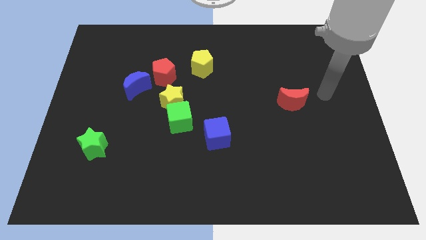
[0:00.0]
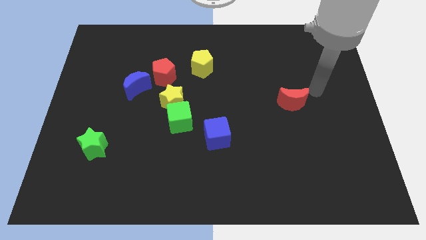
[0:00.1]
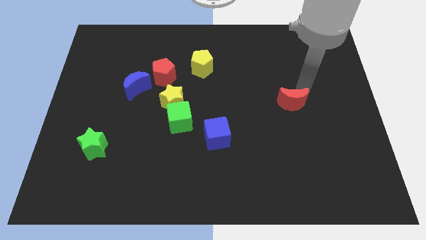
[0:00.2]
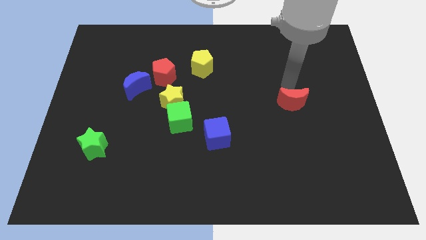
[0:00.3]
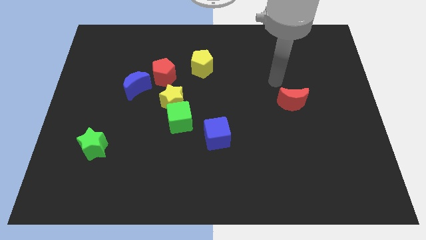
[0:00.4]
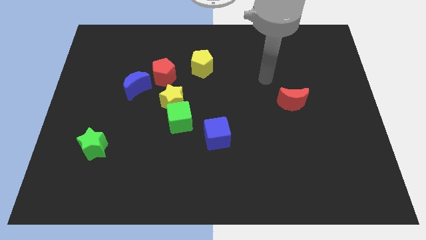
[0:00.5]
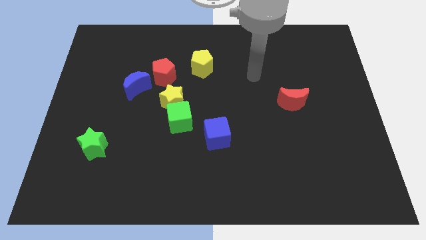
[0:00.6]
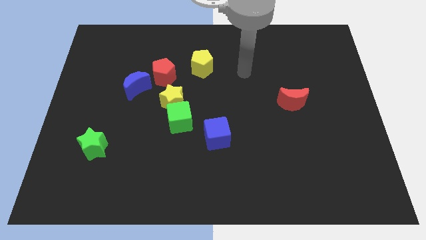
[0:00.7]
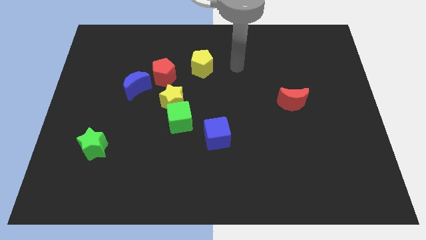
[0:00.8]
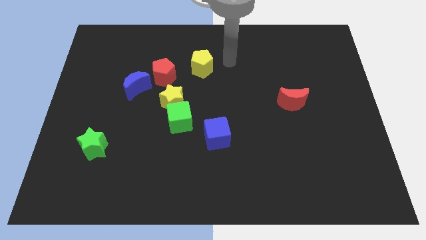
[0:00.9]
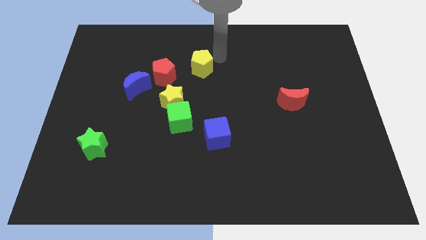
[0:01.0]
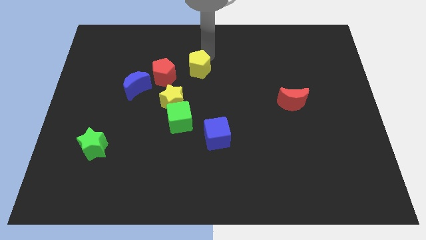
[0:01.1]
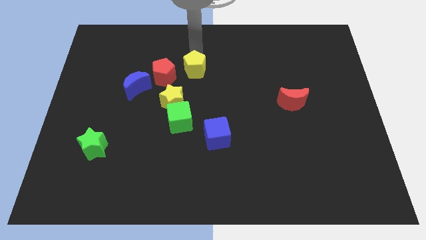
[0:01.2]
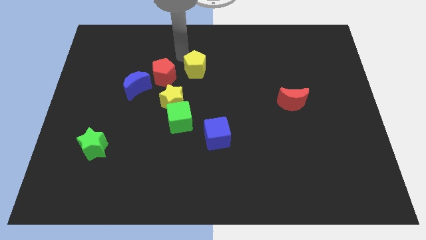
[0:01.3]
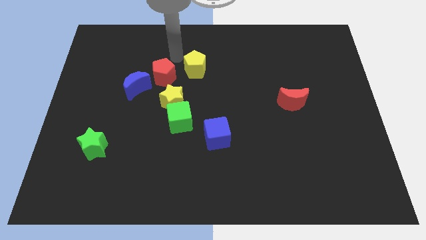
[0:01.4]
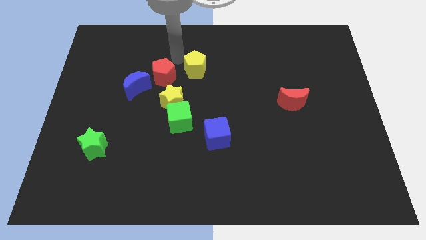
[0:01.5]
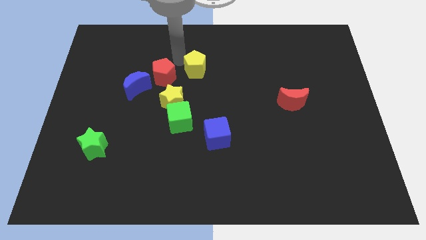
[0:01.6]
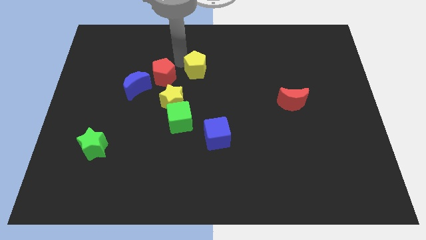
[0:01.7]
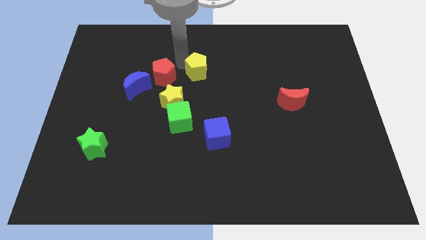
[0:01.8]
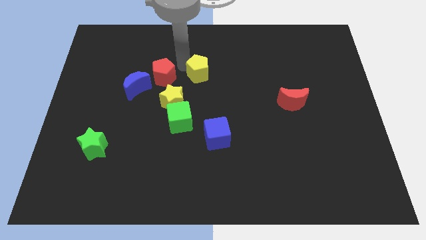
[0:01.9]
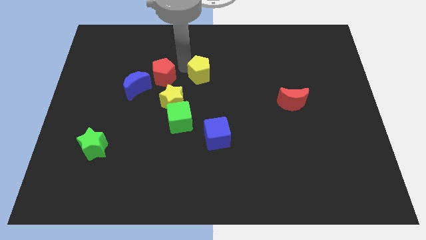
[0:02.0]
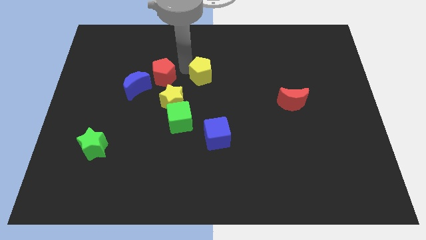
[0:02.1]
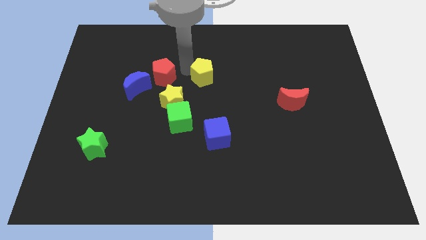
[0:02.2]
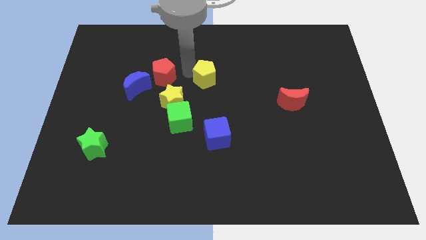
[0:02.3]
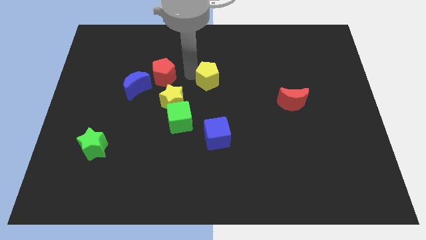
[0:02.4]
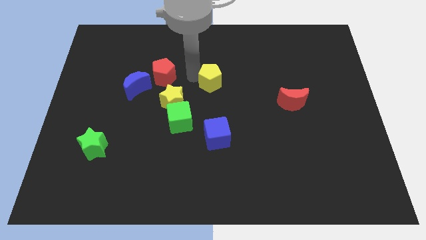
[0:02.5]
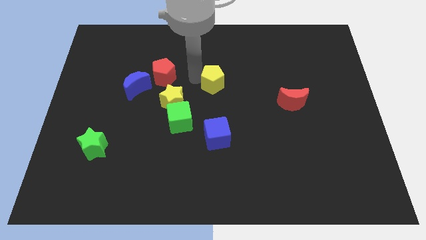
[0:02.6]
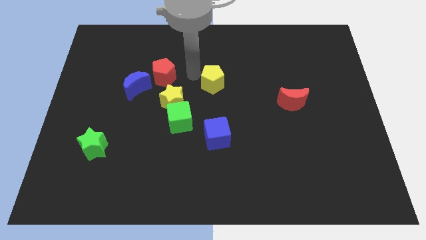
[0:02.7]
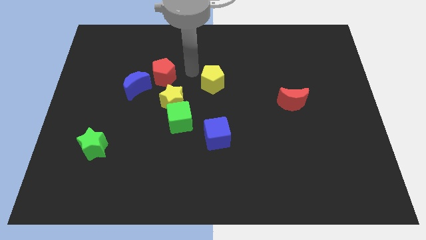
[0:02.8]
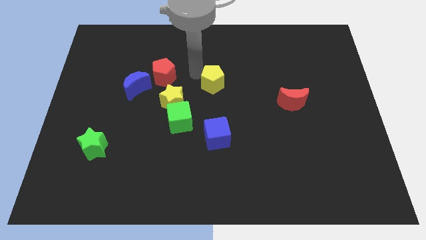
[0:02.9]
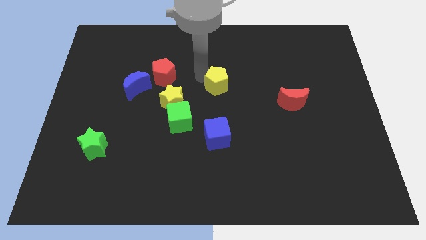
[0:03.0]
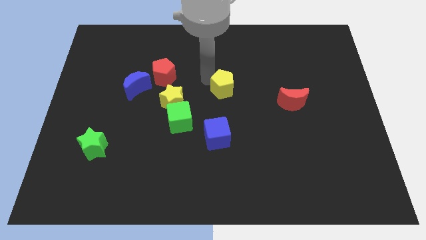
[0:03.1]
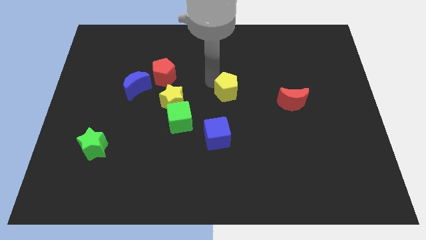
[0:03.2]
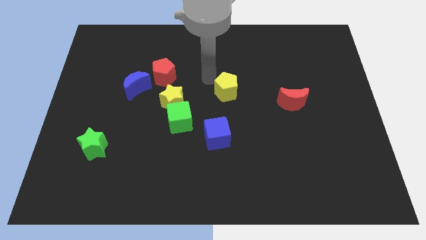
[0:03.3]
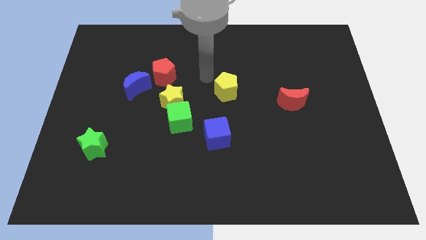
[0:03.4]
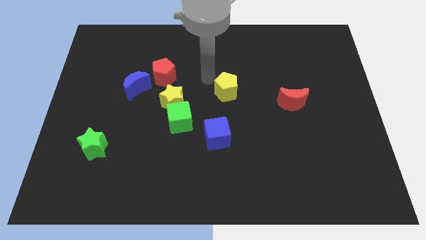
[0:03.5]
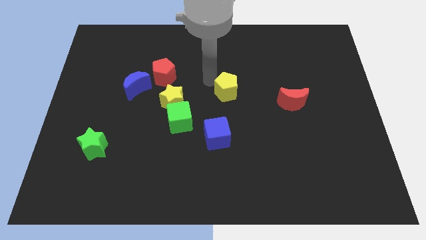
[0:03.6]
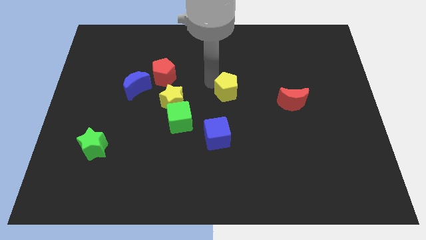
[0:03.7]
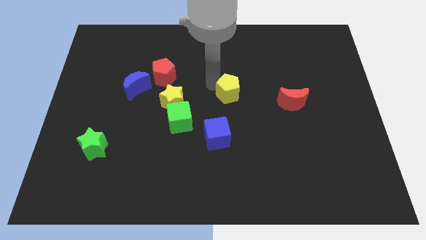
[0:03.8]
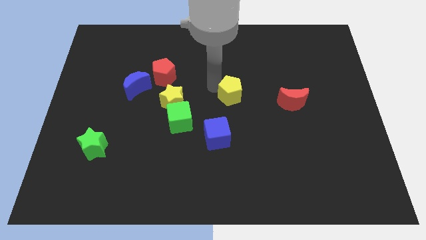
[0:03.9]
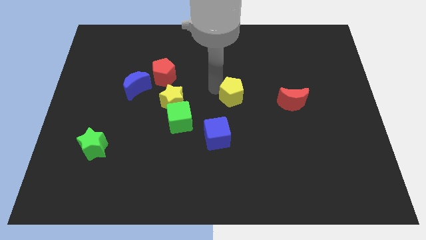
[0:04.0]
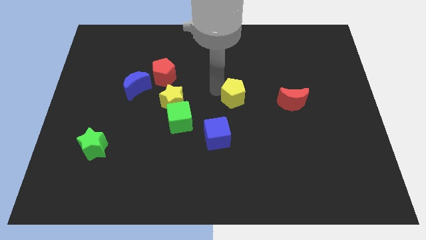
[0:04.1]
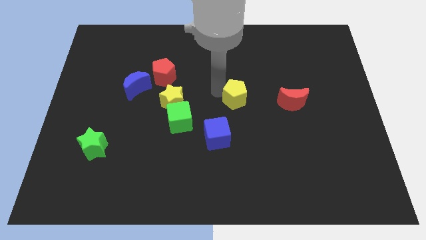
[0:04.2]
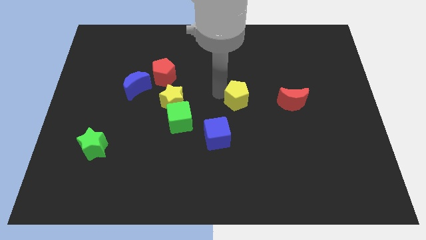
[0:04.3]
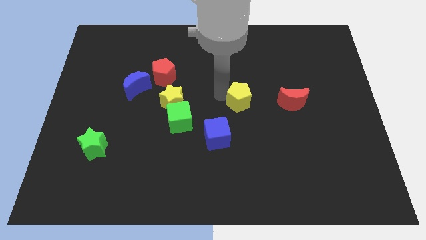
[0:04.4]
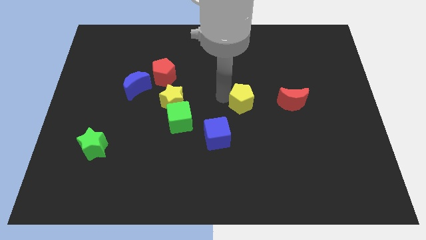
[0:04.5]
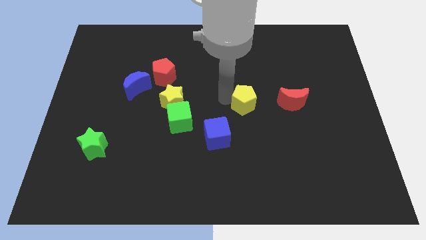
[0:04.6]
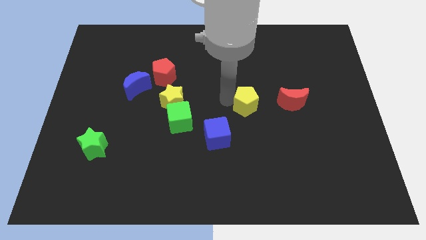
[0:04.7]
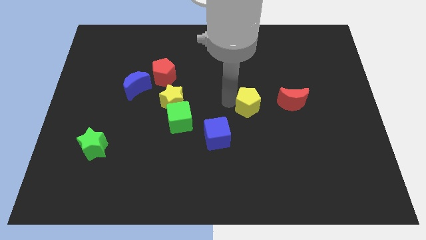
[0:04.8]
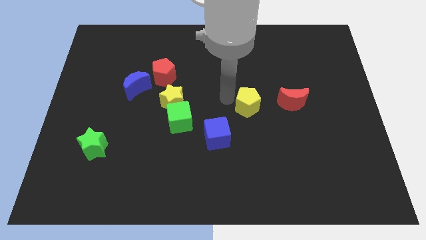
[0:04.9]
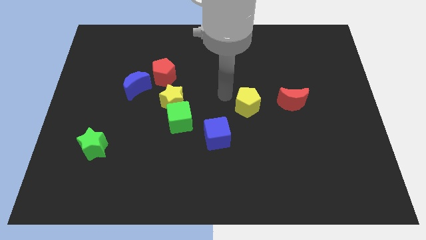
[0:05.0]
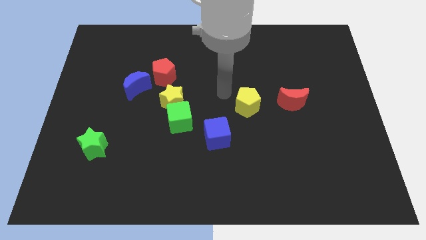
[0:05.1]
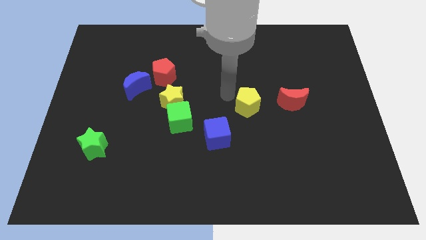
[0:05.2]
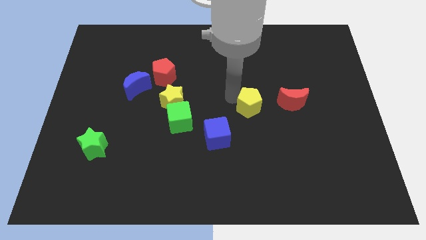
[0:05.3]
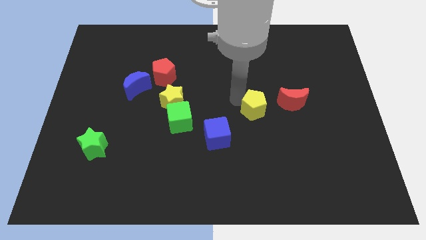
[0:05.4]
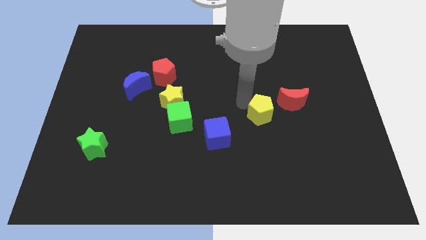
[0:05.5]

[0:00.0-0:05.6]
push the yellow pentagon diagonally down and to the left of the red moon

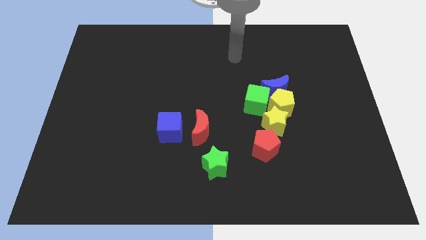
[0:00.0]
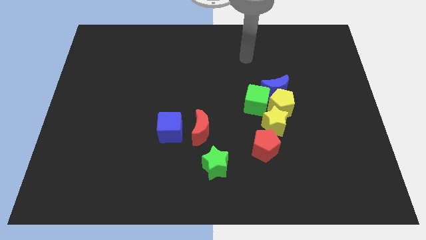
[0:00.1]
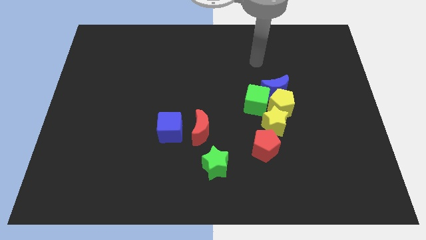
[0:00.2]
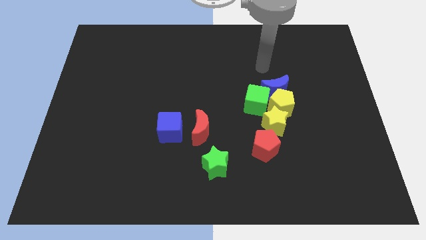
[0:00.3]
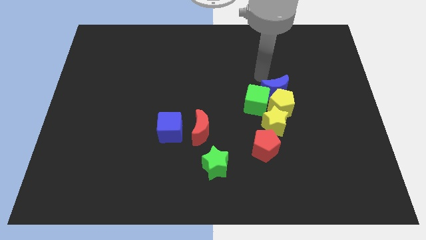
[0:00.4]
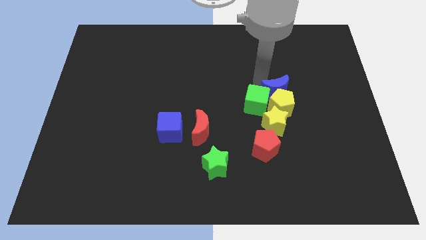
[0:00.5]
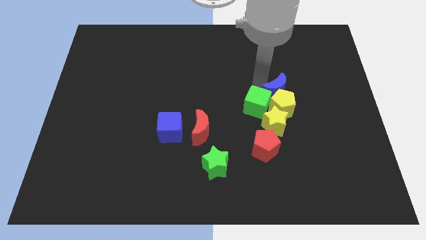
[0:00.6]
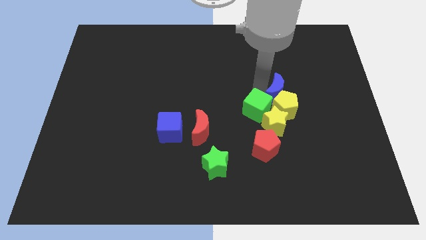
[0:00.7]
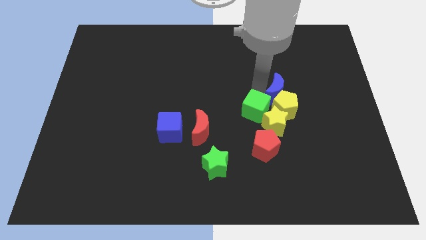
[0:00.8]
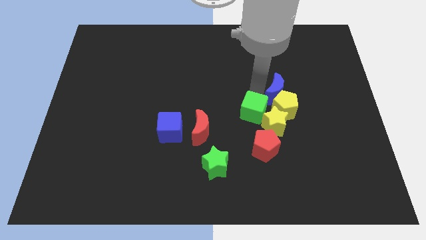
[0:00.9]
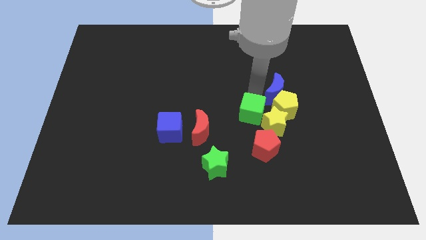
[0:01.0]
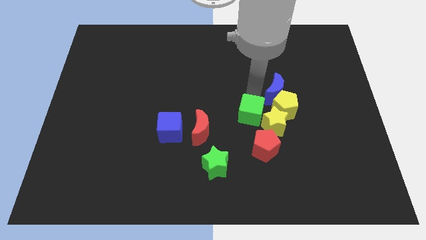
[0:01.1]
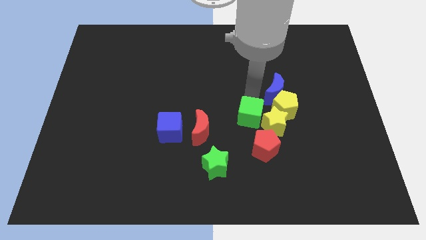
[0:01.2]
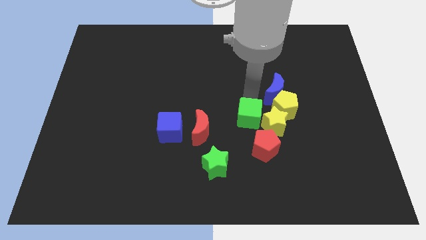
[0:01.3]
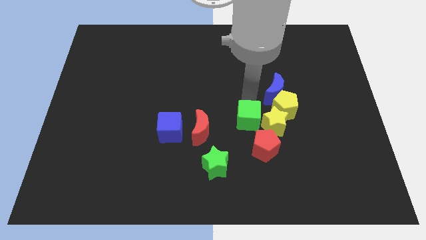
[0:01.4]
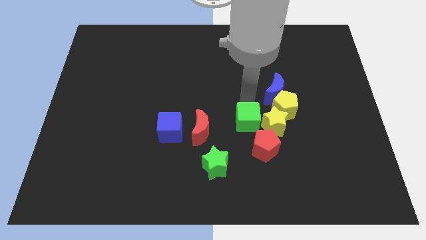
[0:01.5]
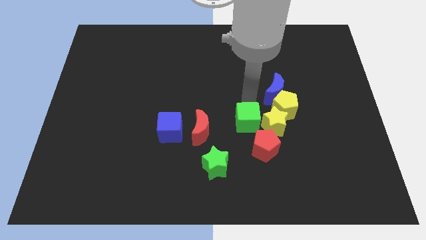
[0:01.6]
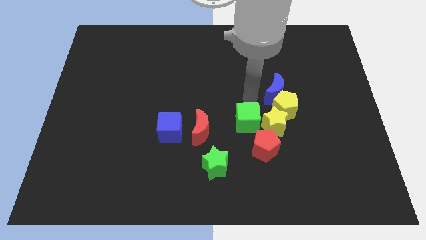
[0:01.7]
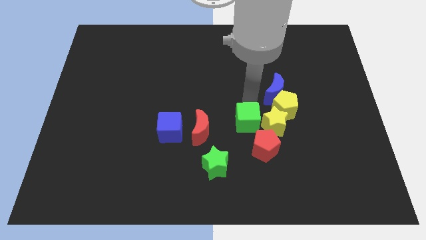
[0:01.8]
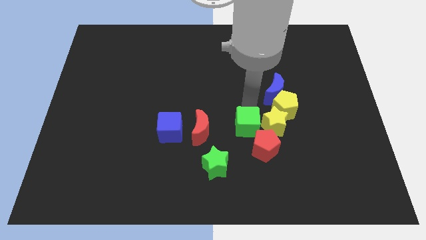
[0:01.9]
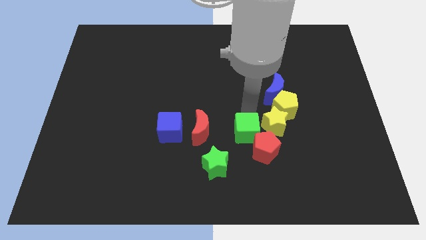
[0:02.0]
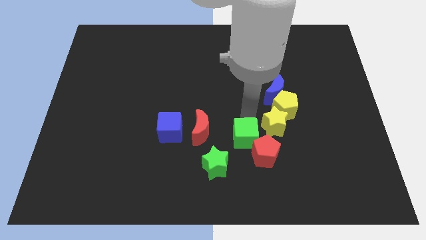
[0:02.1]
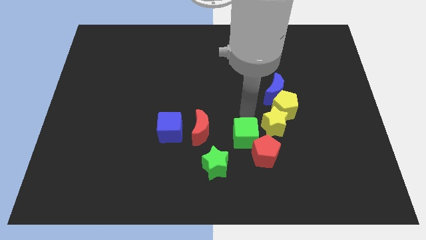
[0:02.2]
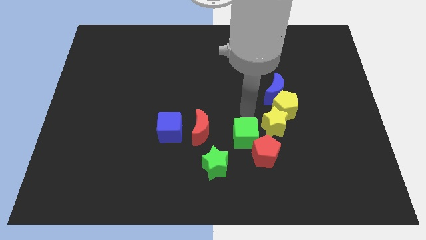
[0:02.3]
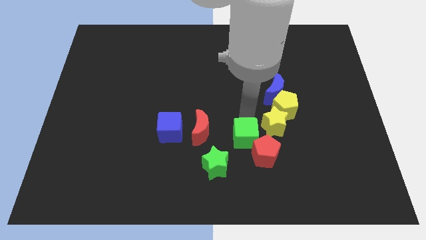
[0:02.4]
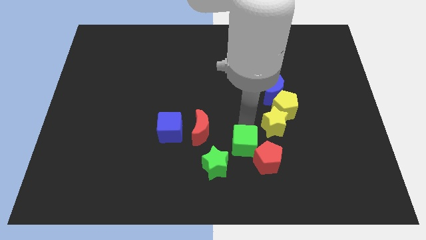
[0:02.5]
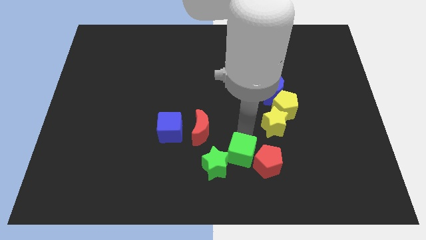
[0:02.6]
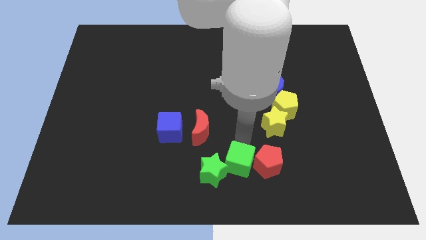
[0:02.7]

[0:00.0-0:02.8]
push the green cube diagonally down and to the left of the red pentagon
